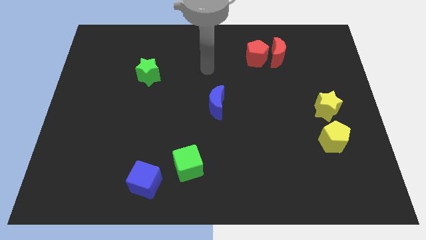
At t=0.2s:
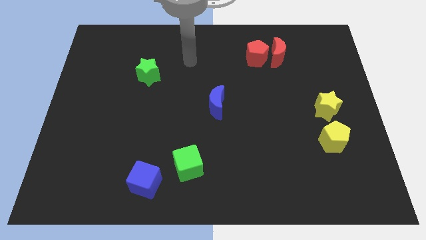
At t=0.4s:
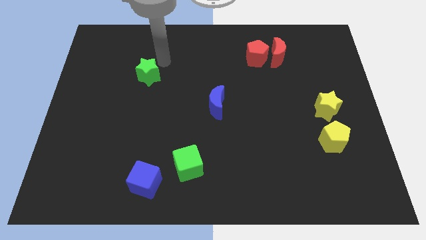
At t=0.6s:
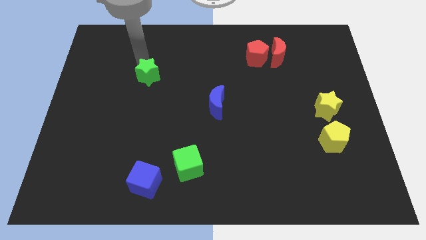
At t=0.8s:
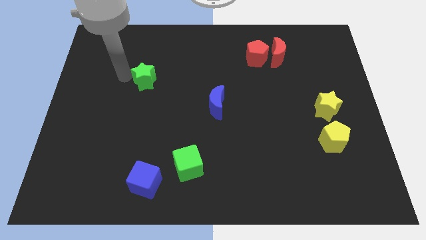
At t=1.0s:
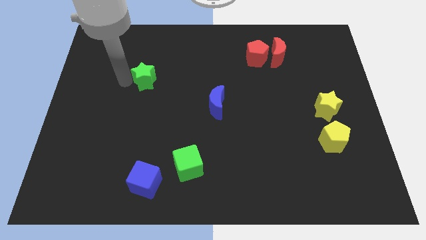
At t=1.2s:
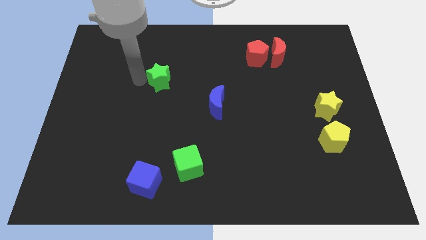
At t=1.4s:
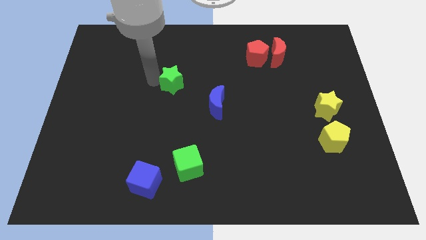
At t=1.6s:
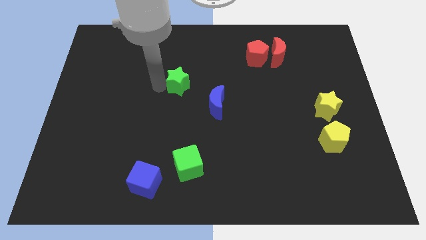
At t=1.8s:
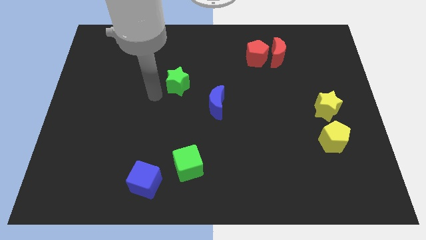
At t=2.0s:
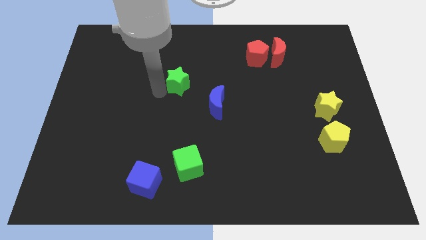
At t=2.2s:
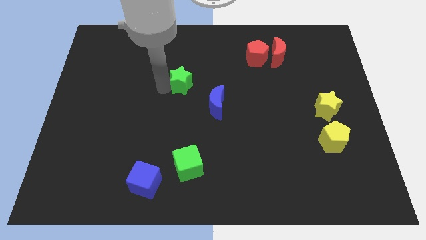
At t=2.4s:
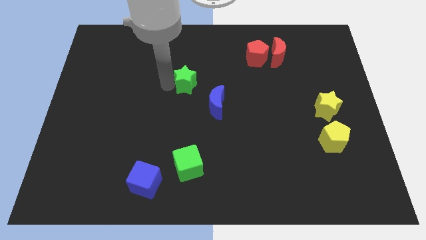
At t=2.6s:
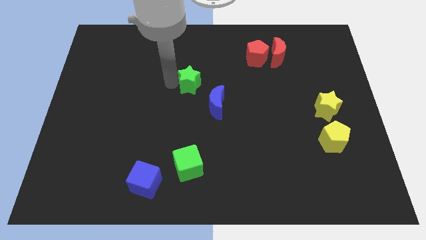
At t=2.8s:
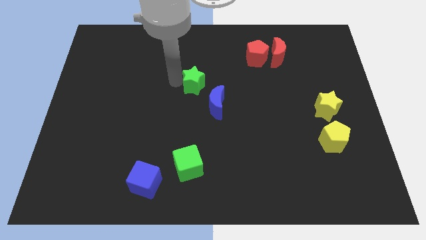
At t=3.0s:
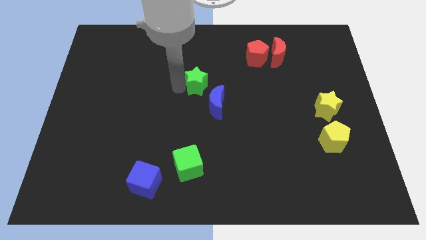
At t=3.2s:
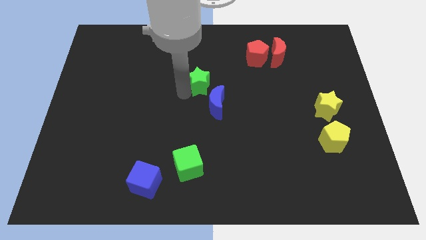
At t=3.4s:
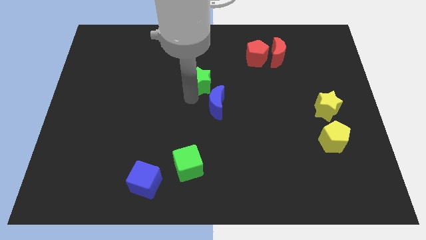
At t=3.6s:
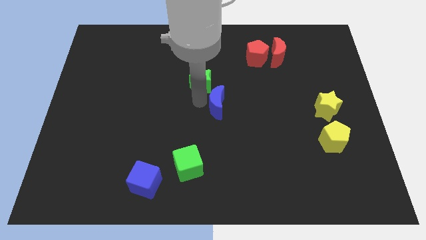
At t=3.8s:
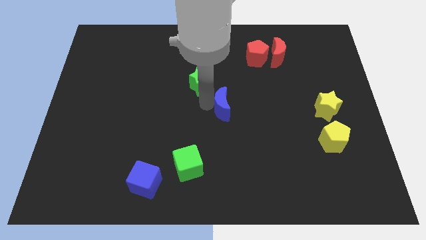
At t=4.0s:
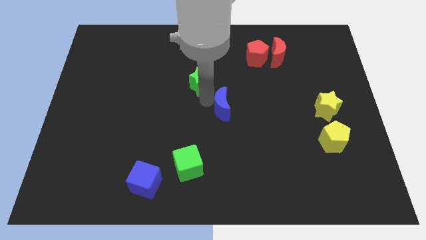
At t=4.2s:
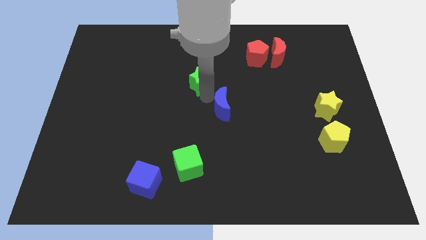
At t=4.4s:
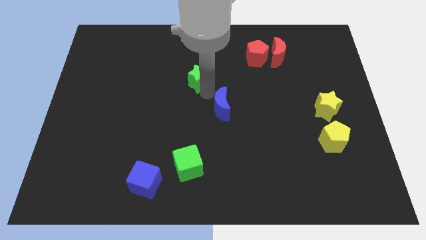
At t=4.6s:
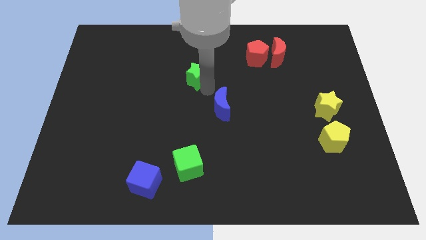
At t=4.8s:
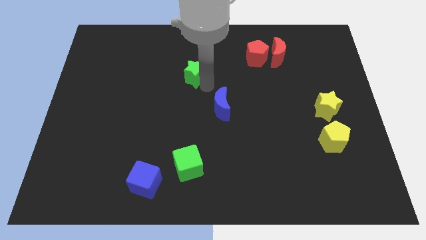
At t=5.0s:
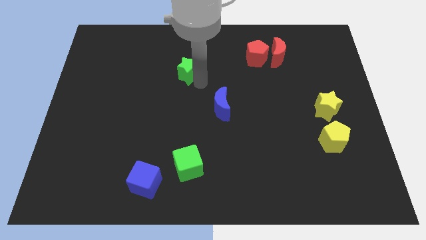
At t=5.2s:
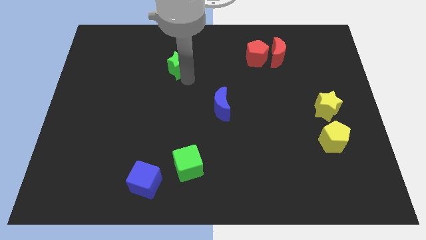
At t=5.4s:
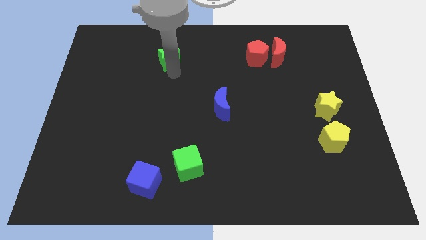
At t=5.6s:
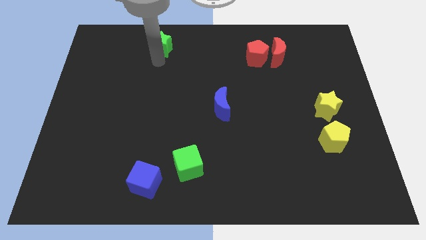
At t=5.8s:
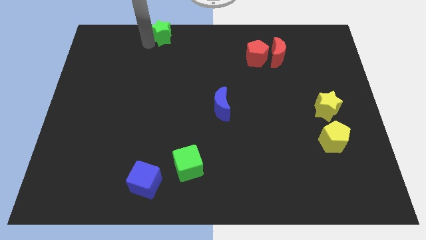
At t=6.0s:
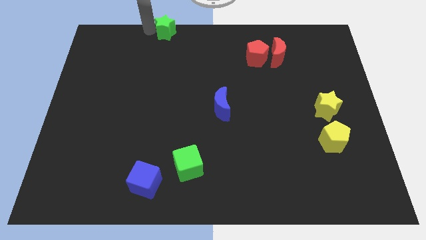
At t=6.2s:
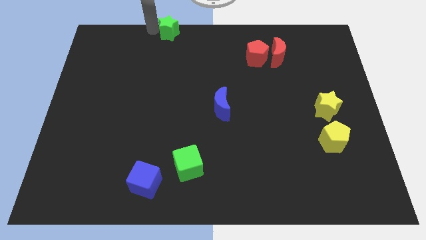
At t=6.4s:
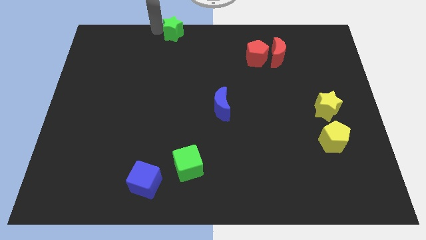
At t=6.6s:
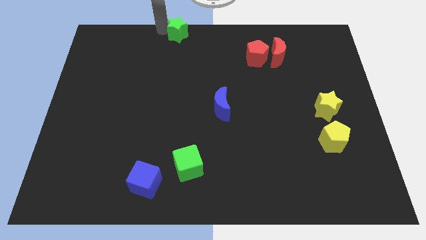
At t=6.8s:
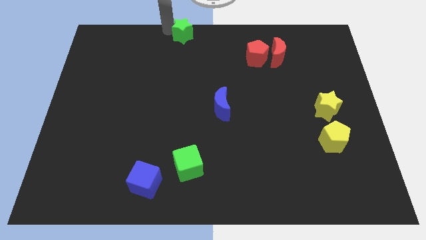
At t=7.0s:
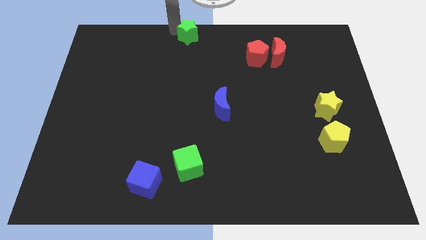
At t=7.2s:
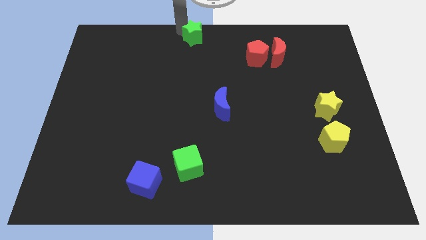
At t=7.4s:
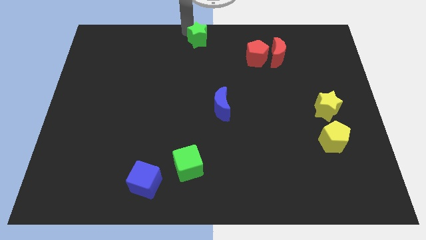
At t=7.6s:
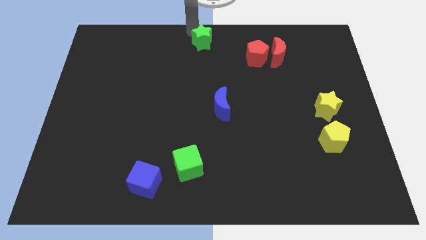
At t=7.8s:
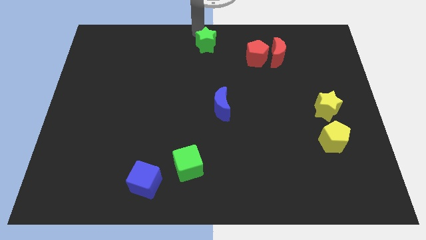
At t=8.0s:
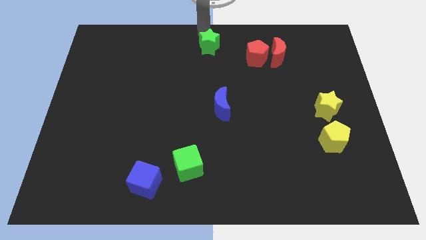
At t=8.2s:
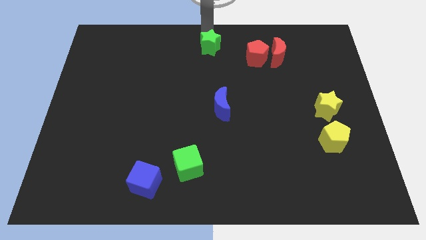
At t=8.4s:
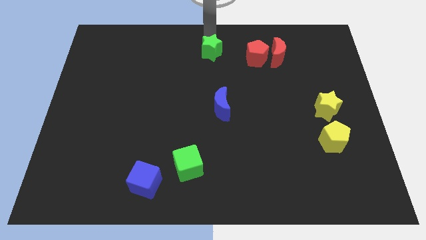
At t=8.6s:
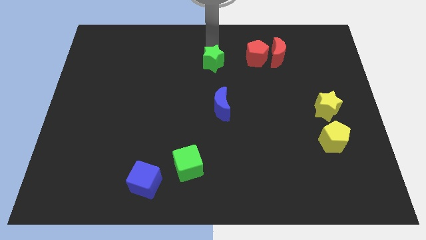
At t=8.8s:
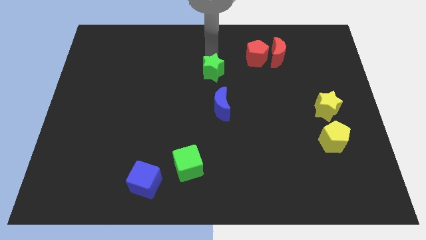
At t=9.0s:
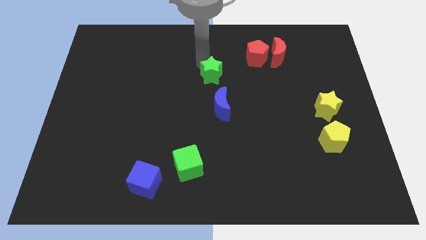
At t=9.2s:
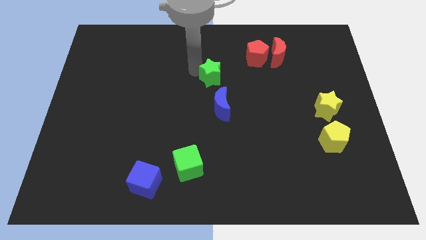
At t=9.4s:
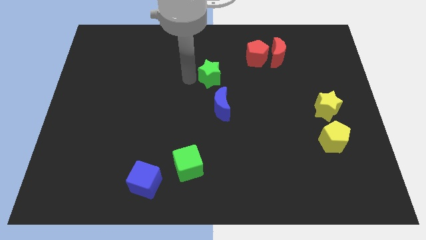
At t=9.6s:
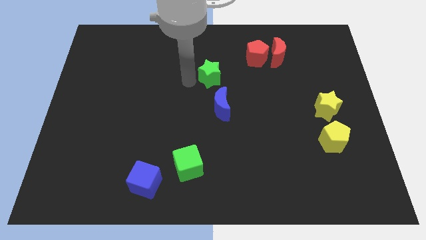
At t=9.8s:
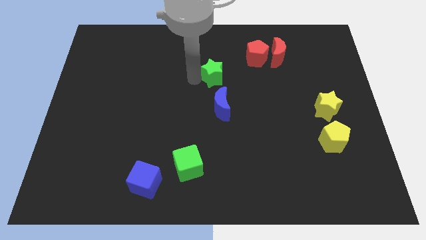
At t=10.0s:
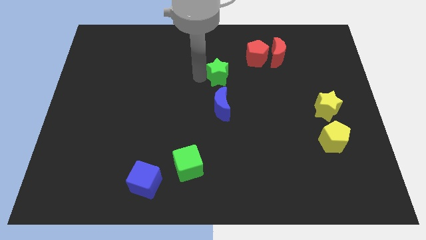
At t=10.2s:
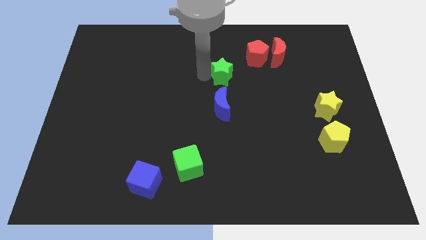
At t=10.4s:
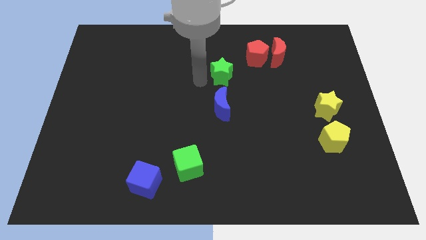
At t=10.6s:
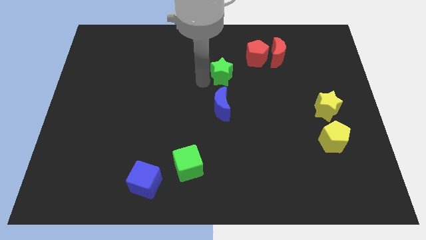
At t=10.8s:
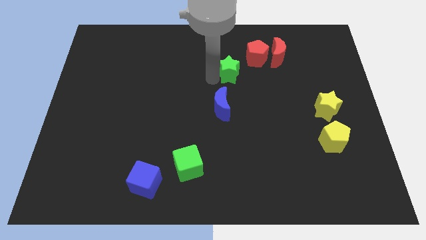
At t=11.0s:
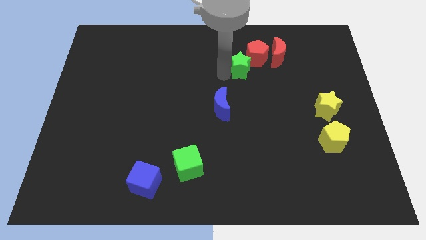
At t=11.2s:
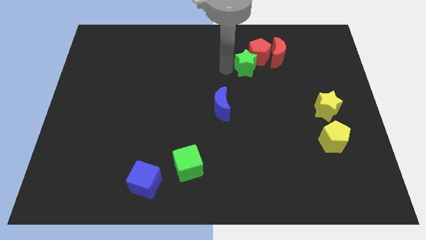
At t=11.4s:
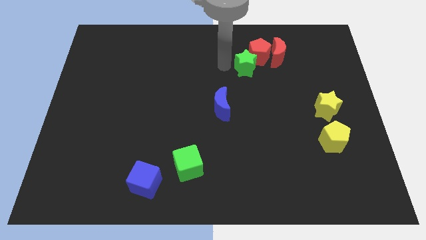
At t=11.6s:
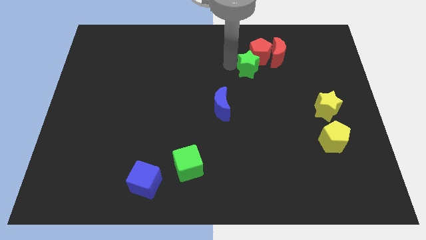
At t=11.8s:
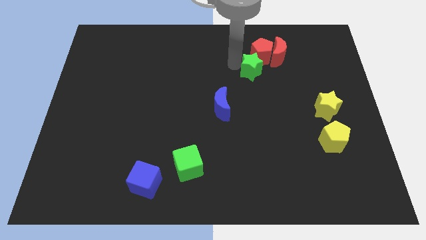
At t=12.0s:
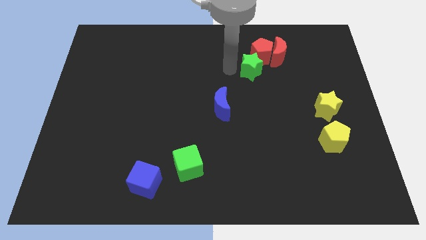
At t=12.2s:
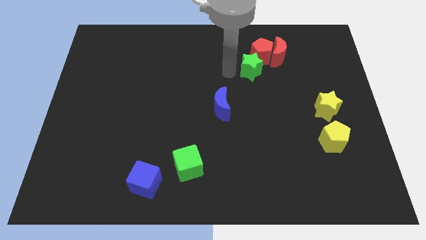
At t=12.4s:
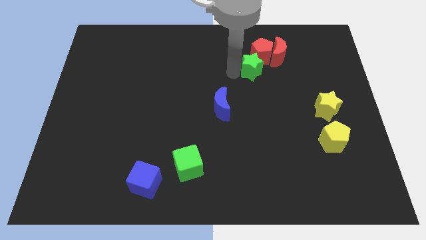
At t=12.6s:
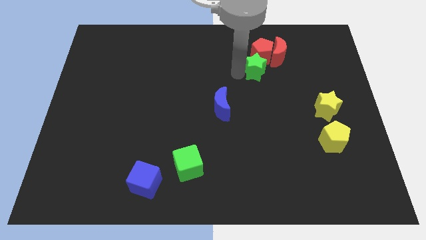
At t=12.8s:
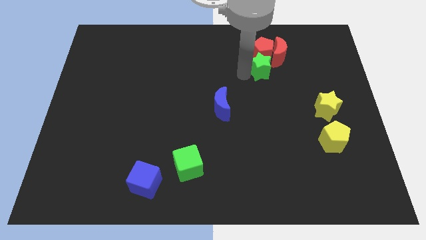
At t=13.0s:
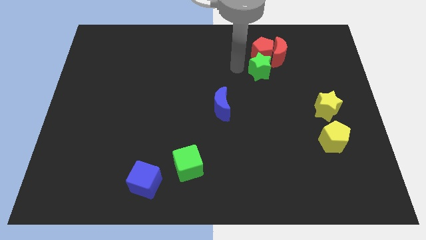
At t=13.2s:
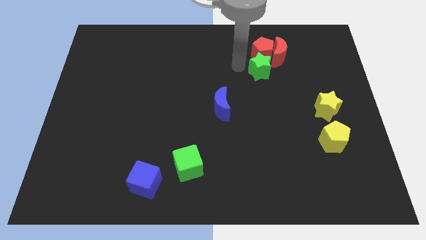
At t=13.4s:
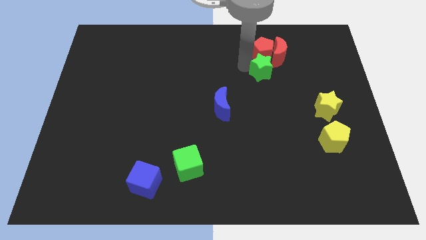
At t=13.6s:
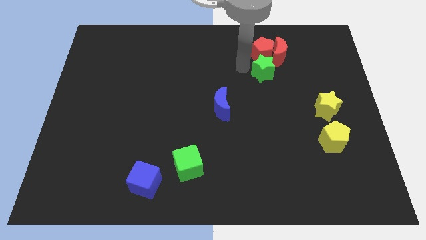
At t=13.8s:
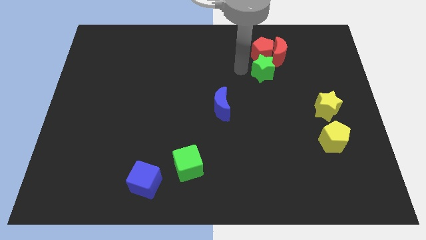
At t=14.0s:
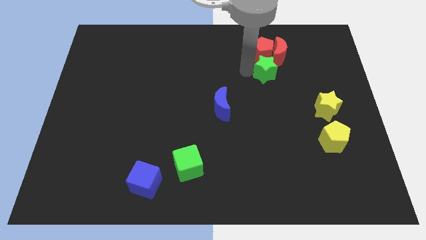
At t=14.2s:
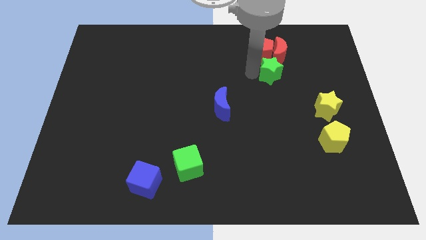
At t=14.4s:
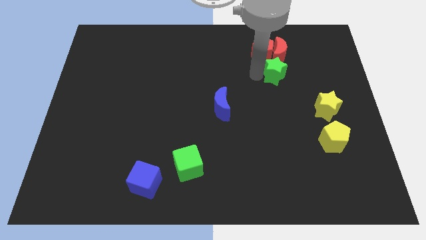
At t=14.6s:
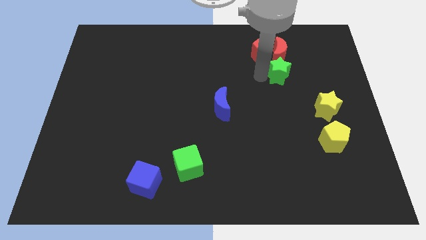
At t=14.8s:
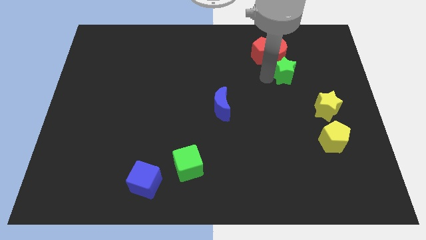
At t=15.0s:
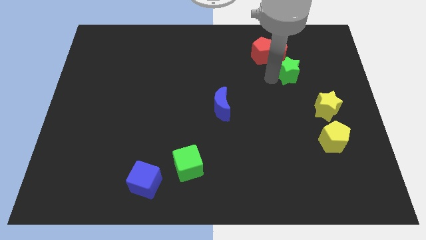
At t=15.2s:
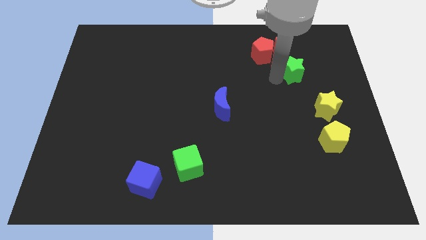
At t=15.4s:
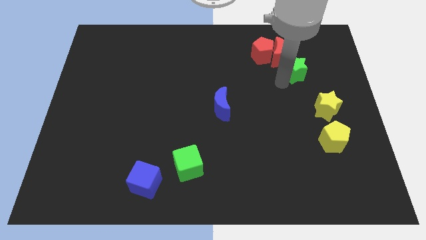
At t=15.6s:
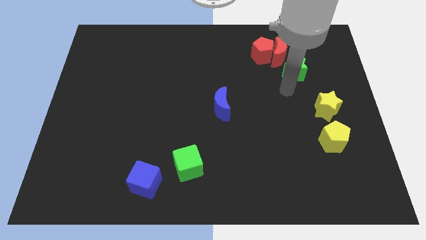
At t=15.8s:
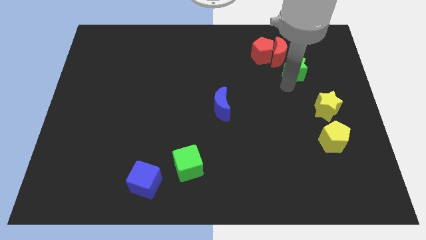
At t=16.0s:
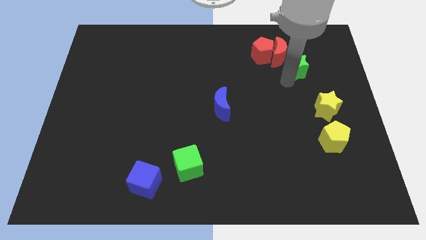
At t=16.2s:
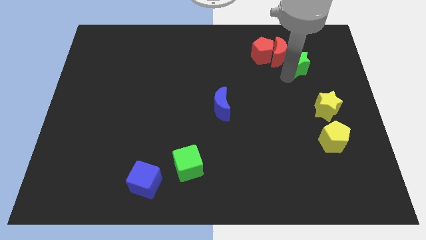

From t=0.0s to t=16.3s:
move the green star right of the red pentagon
